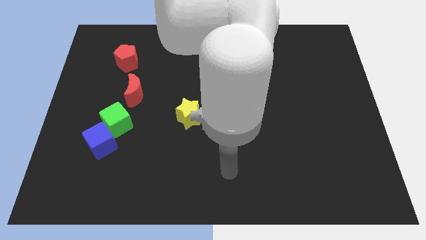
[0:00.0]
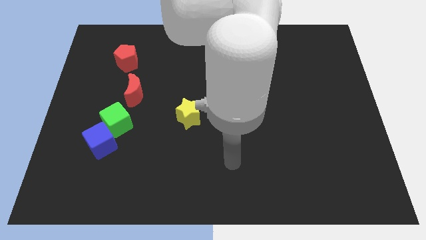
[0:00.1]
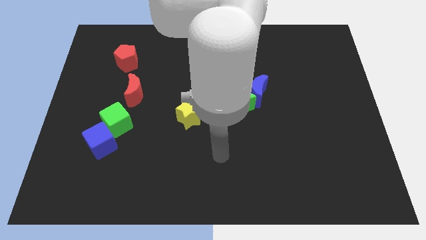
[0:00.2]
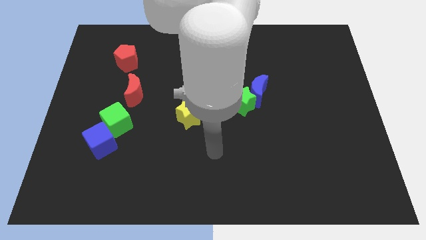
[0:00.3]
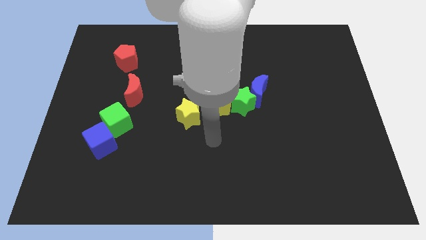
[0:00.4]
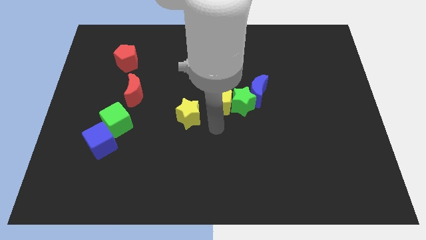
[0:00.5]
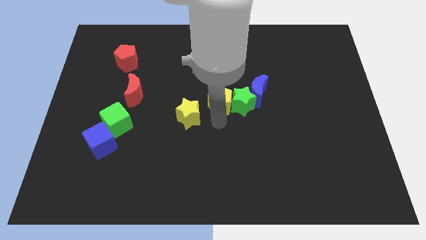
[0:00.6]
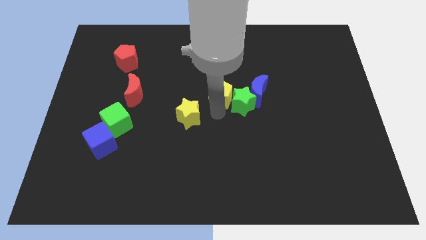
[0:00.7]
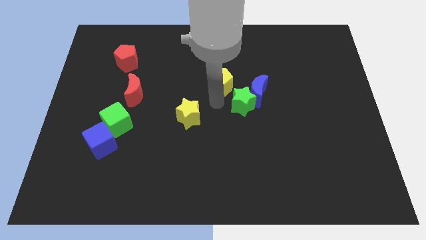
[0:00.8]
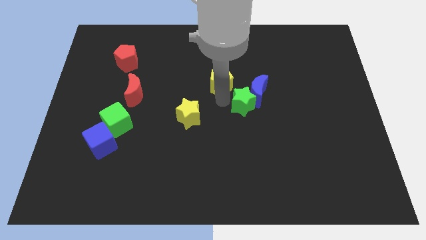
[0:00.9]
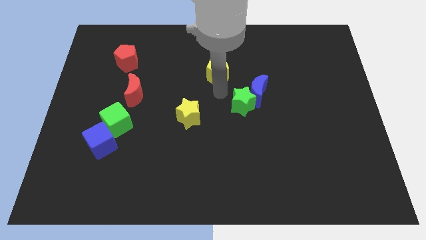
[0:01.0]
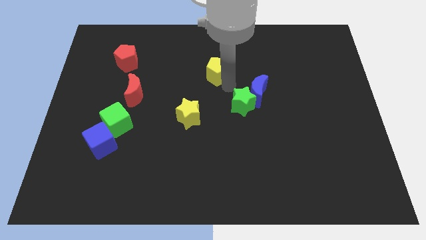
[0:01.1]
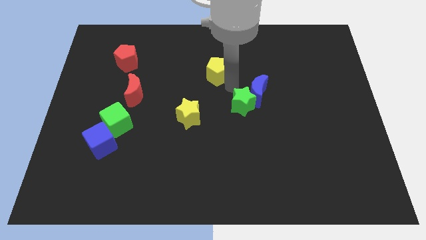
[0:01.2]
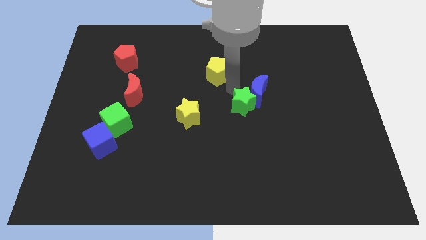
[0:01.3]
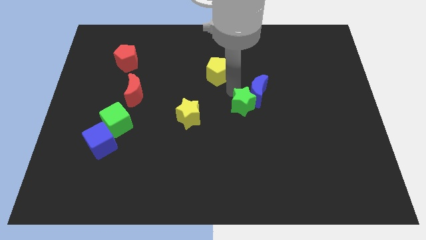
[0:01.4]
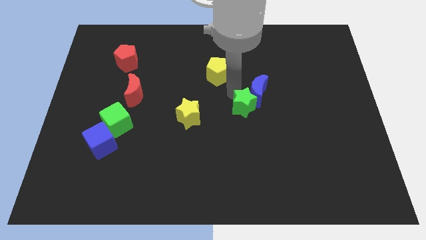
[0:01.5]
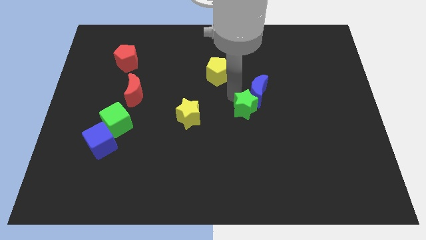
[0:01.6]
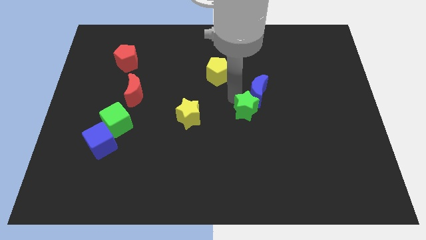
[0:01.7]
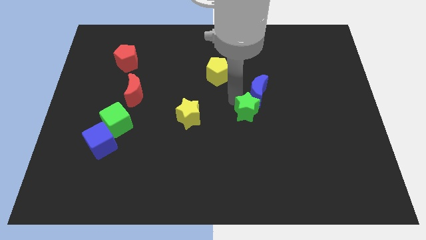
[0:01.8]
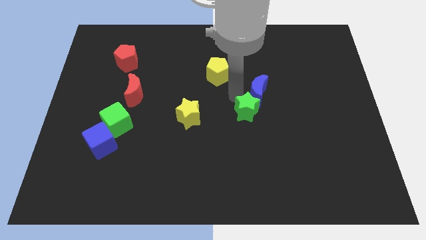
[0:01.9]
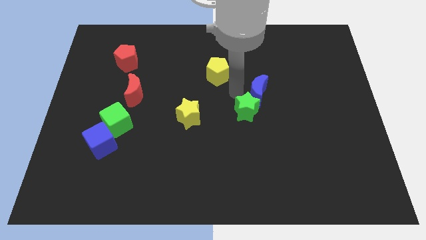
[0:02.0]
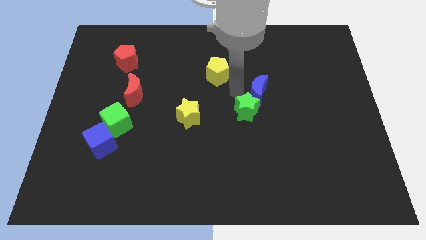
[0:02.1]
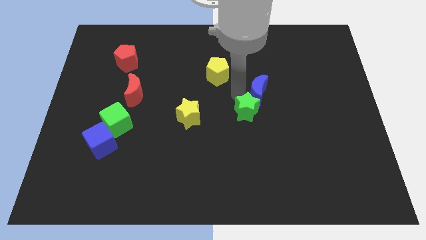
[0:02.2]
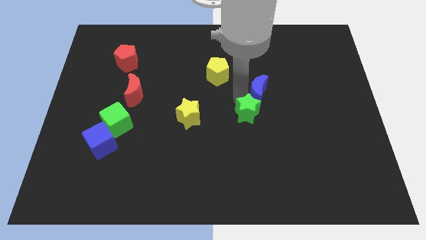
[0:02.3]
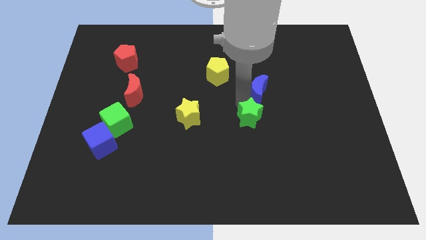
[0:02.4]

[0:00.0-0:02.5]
separate the green star from the blue moon and yellow pentagon

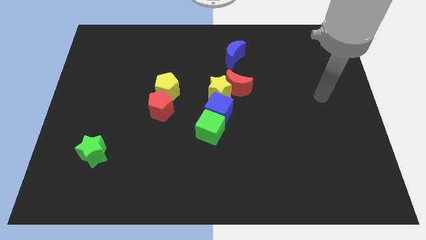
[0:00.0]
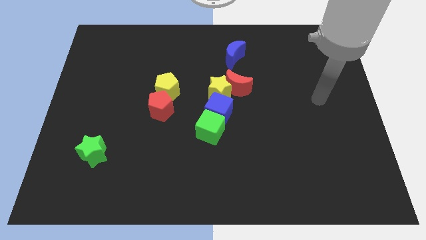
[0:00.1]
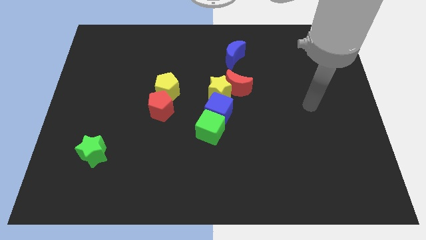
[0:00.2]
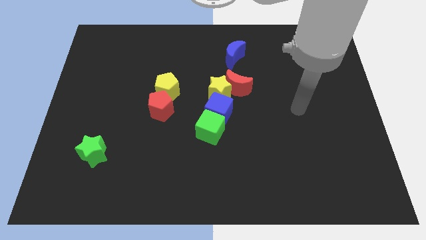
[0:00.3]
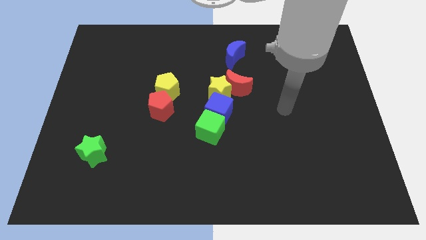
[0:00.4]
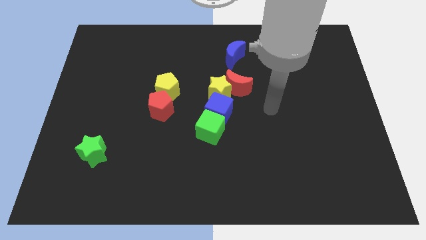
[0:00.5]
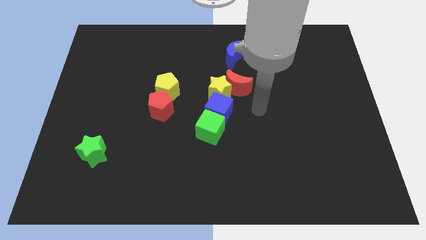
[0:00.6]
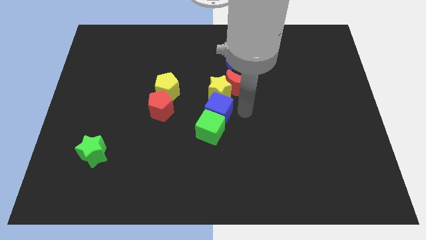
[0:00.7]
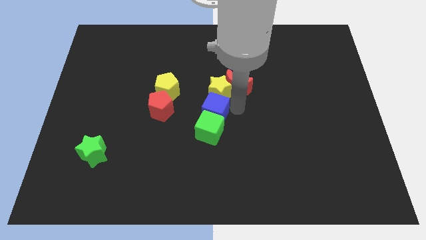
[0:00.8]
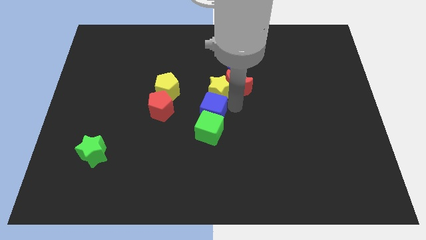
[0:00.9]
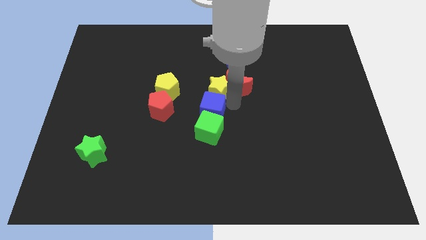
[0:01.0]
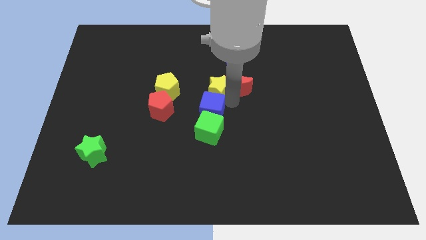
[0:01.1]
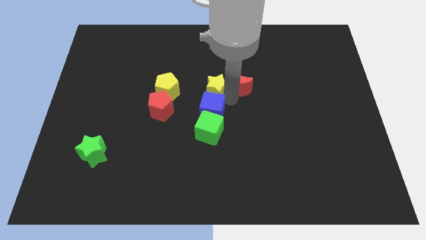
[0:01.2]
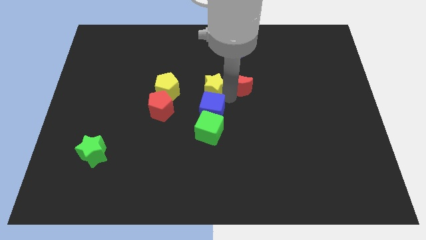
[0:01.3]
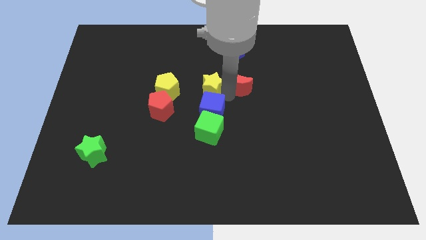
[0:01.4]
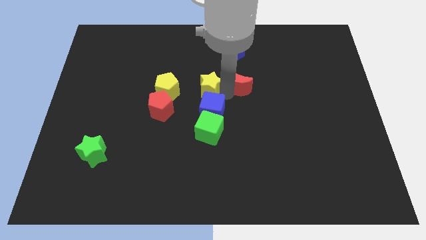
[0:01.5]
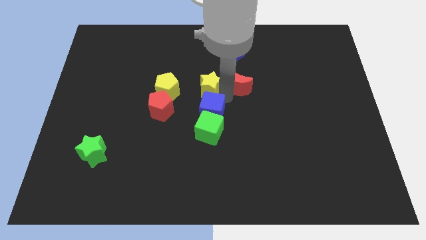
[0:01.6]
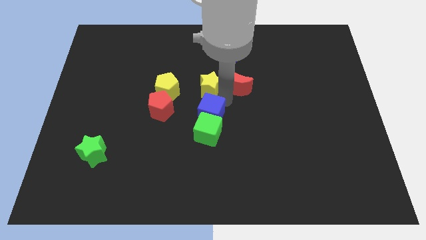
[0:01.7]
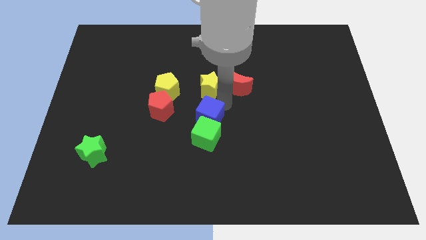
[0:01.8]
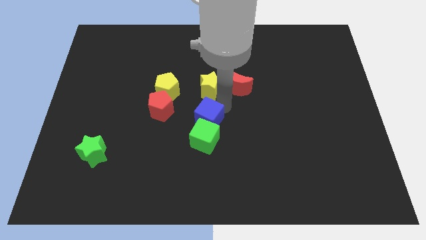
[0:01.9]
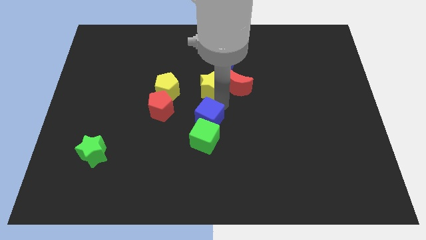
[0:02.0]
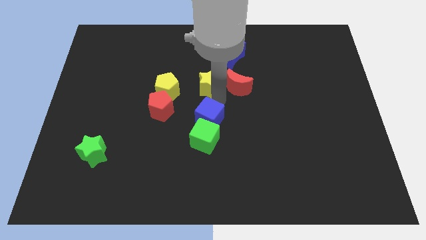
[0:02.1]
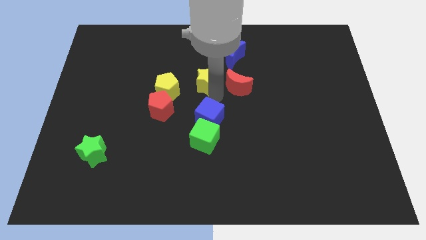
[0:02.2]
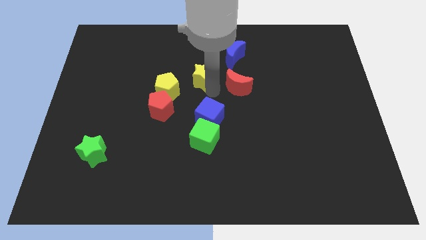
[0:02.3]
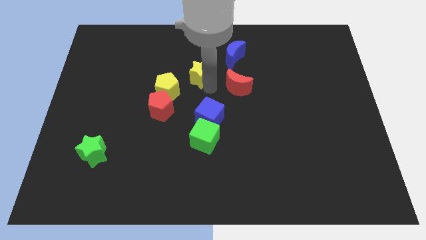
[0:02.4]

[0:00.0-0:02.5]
pull the yellow star apart from the red moon and blue cube

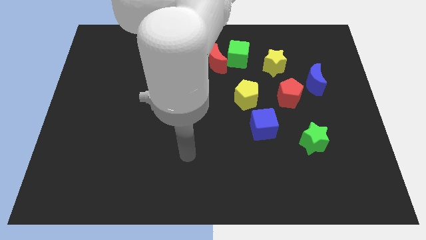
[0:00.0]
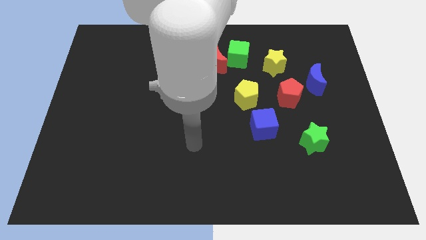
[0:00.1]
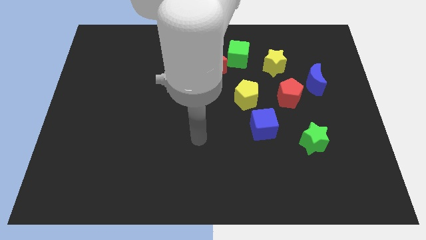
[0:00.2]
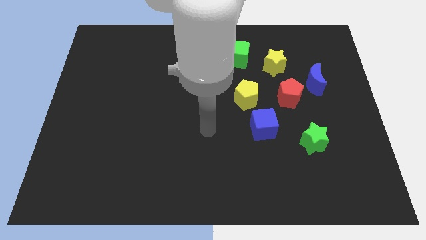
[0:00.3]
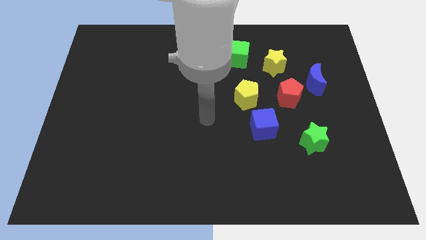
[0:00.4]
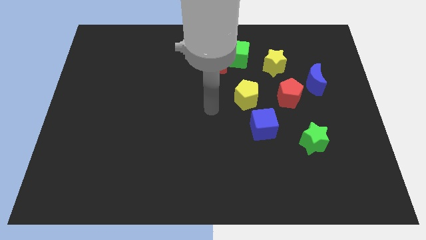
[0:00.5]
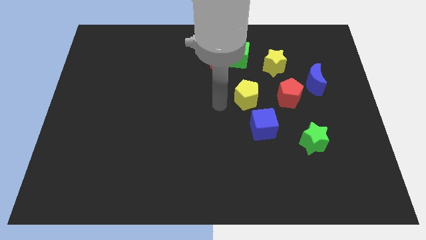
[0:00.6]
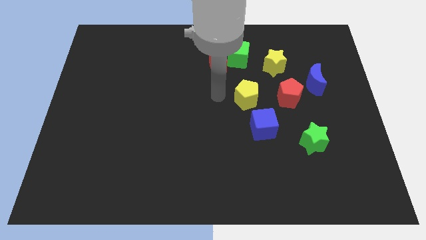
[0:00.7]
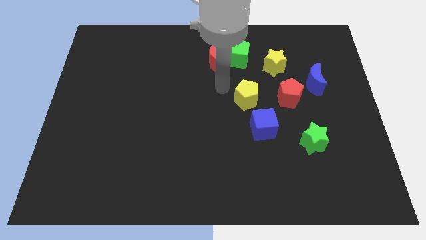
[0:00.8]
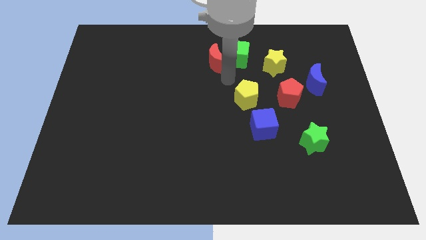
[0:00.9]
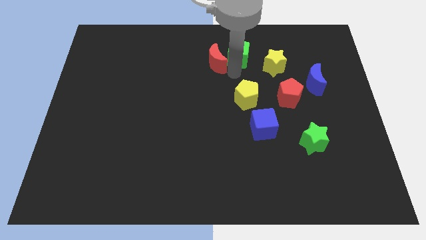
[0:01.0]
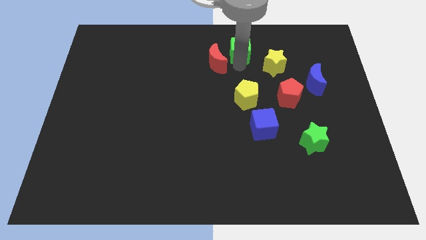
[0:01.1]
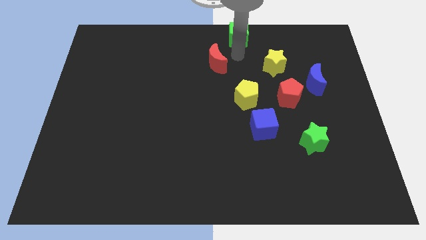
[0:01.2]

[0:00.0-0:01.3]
separate the red moon from the green cube

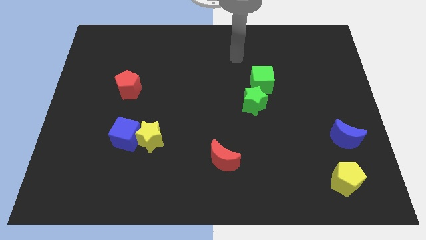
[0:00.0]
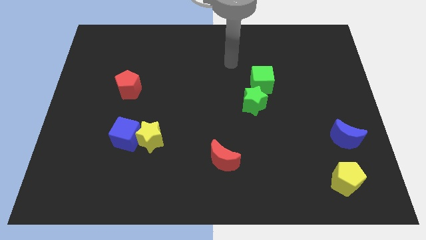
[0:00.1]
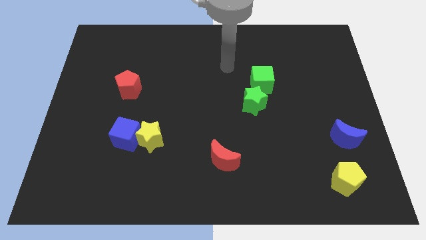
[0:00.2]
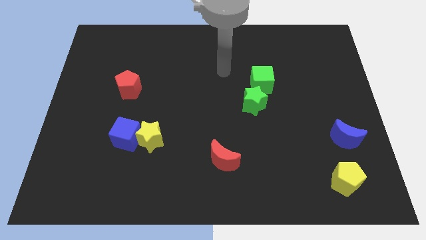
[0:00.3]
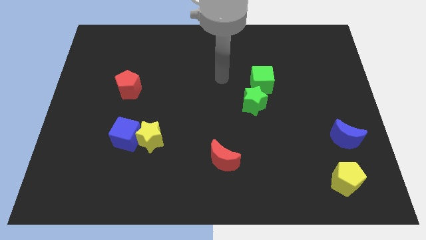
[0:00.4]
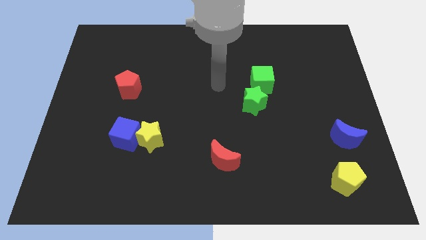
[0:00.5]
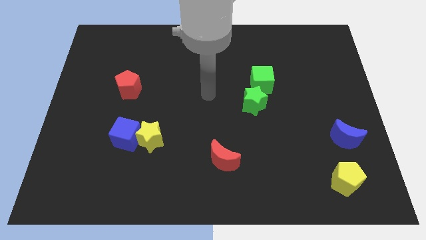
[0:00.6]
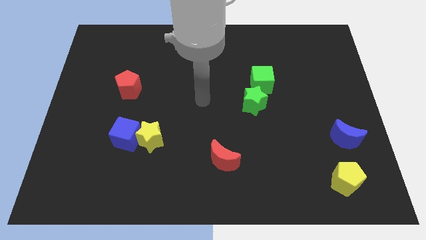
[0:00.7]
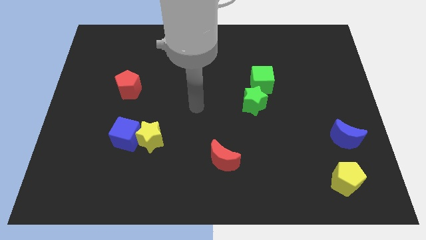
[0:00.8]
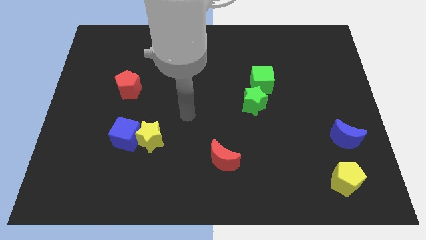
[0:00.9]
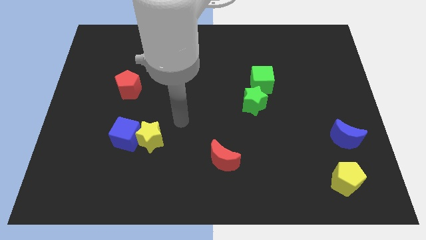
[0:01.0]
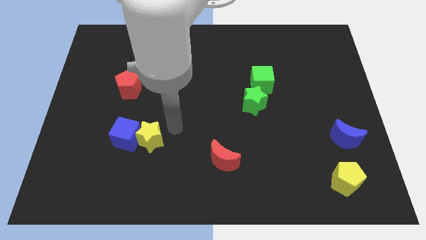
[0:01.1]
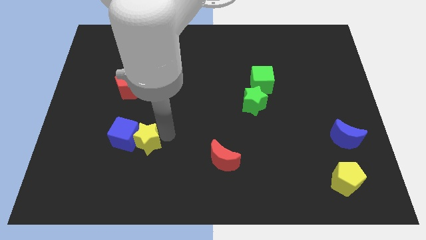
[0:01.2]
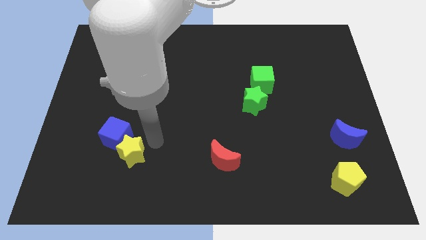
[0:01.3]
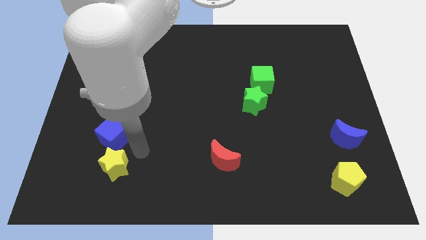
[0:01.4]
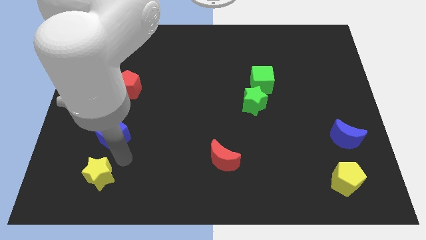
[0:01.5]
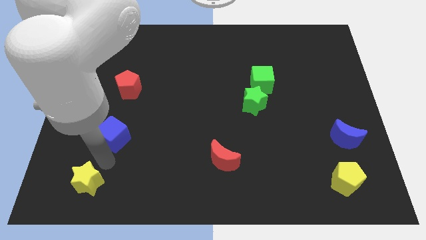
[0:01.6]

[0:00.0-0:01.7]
move the blue cube away from the yellow star

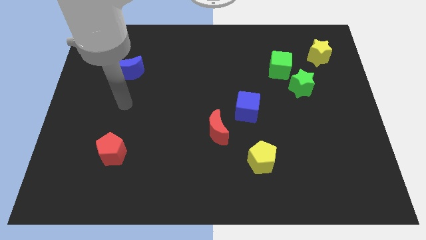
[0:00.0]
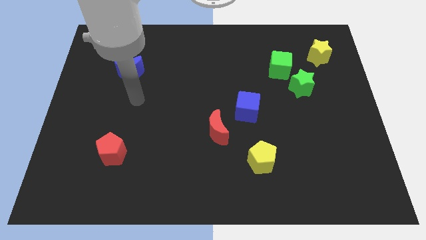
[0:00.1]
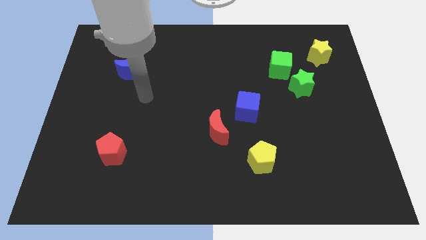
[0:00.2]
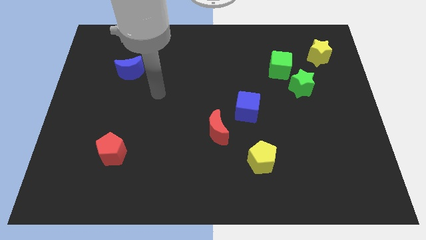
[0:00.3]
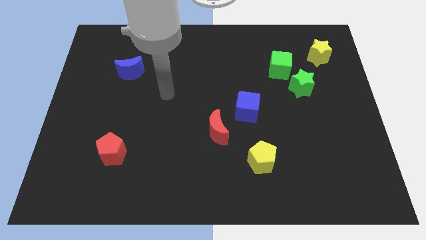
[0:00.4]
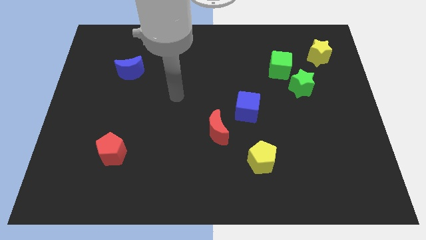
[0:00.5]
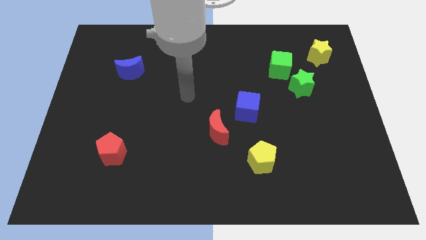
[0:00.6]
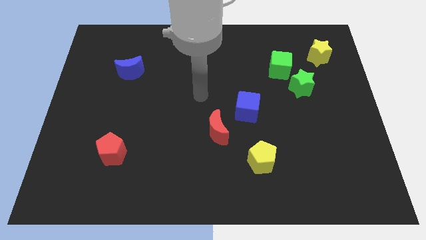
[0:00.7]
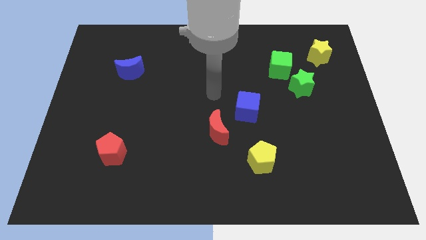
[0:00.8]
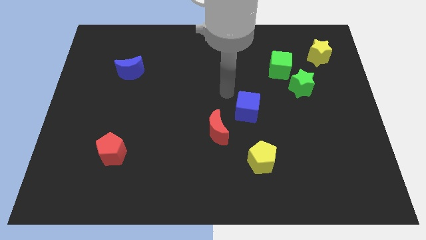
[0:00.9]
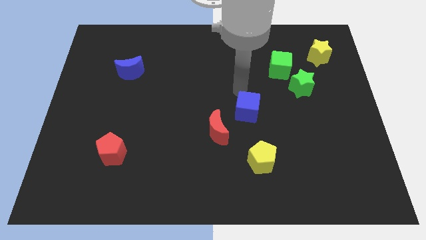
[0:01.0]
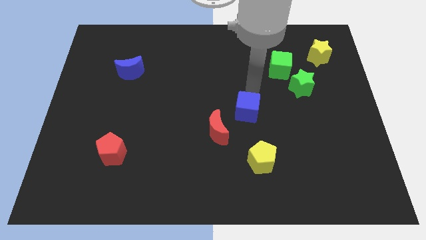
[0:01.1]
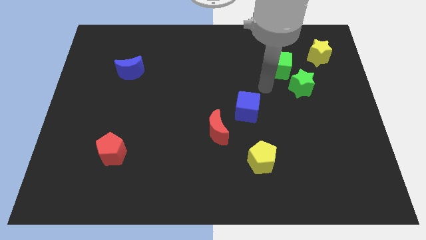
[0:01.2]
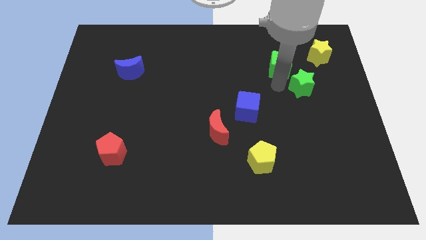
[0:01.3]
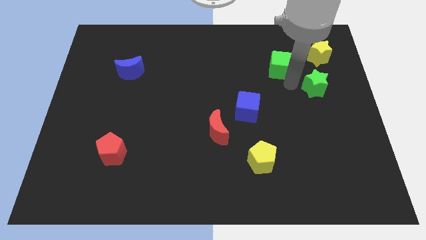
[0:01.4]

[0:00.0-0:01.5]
move the green cube away from the green star

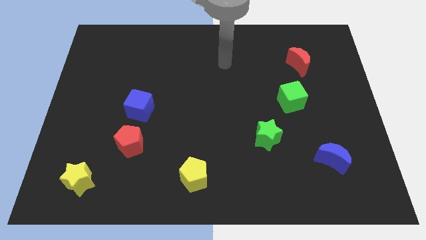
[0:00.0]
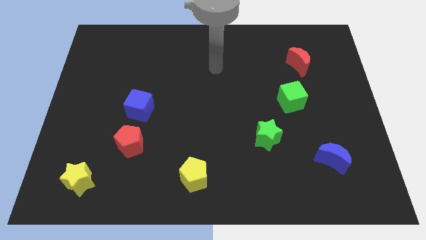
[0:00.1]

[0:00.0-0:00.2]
move the red pentagon away from the blue cube
